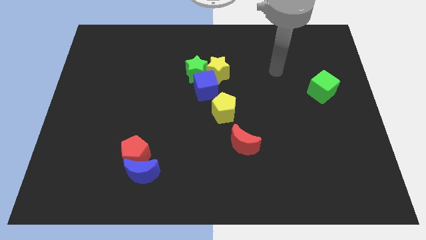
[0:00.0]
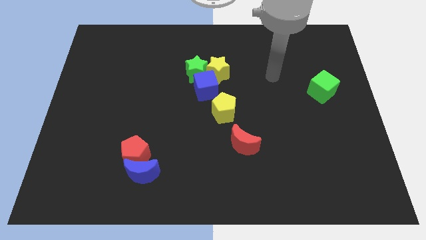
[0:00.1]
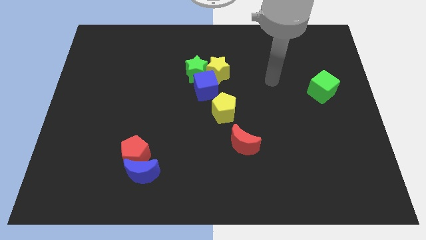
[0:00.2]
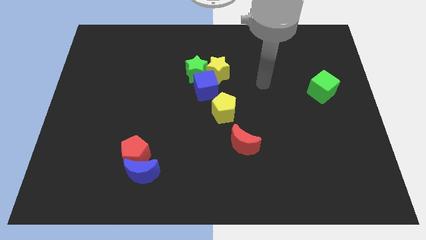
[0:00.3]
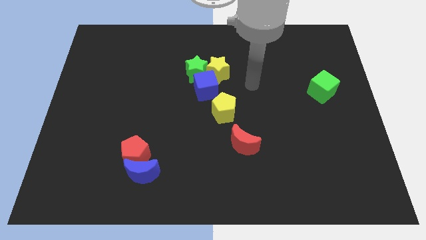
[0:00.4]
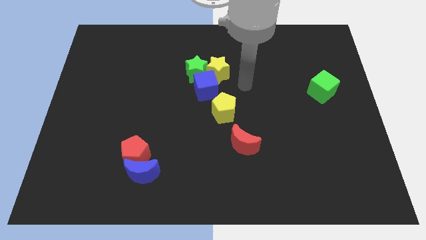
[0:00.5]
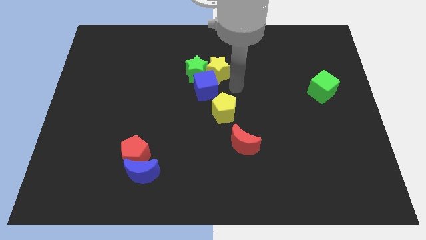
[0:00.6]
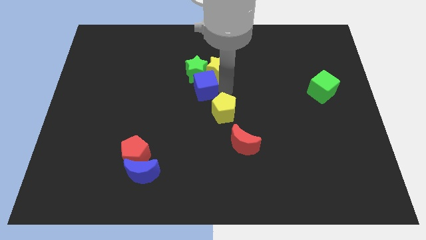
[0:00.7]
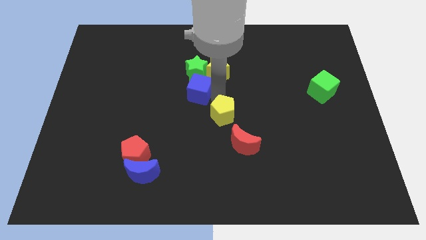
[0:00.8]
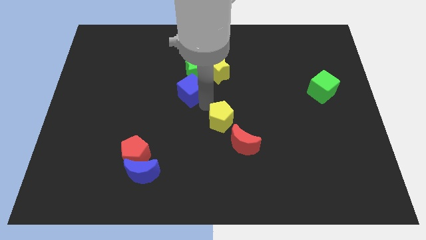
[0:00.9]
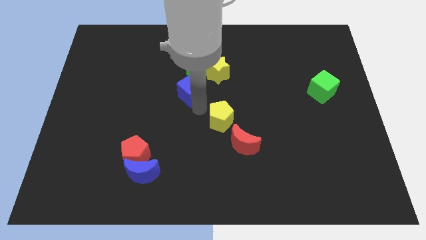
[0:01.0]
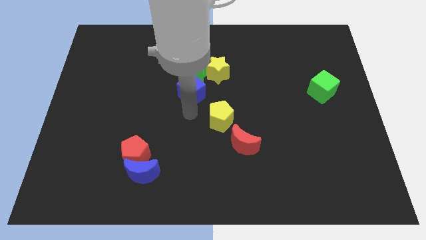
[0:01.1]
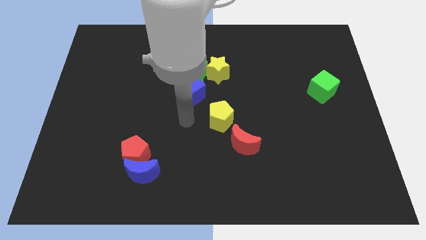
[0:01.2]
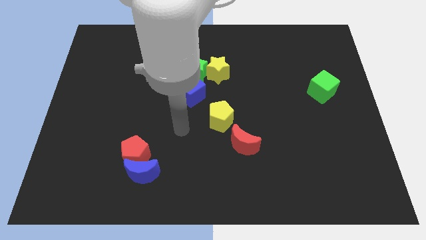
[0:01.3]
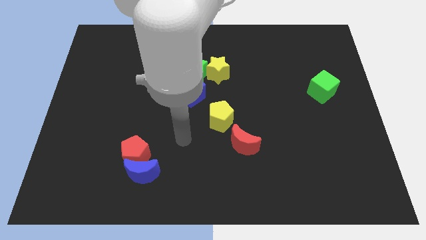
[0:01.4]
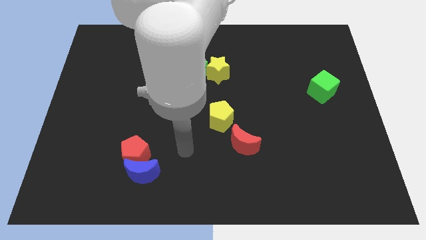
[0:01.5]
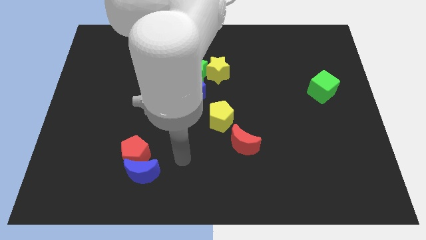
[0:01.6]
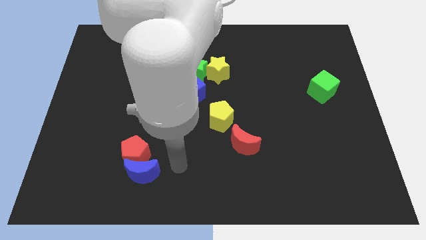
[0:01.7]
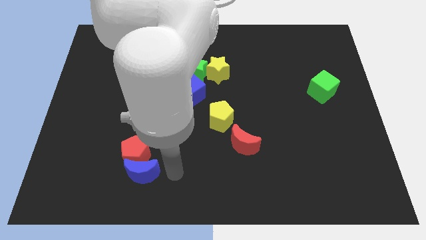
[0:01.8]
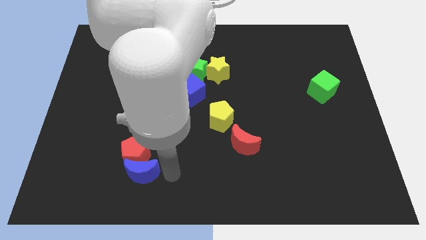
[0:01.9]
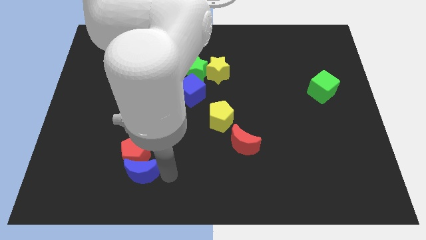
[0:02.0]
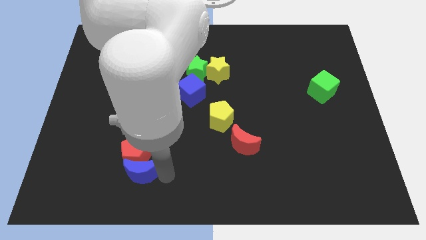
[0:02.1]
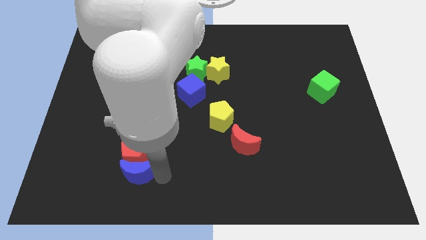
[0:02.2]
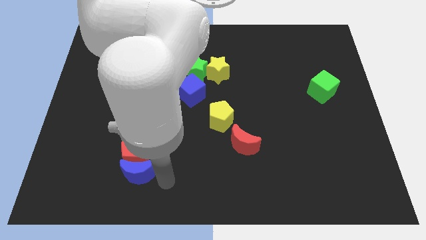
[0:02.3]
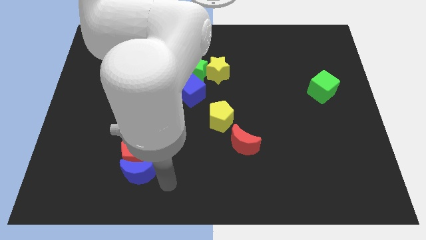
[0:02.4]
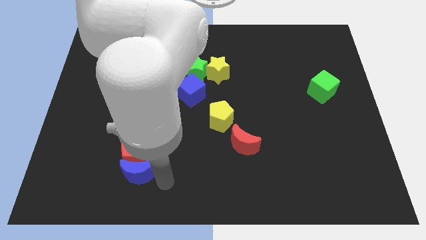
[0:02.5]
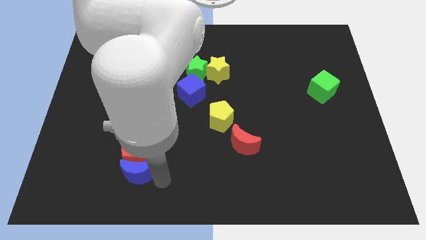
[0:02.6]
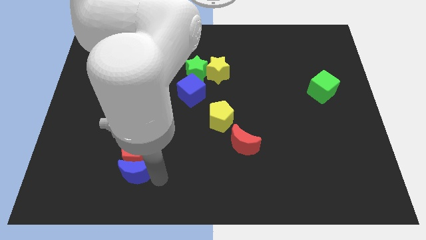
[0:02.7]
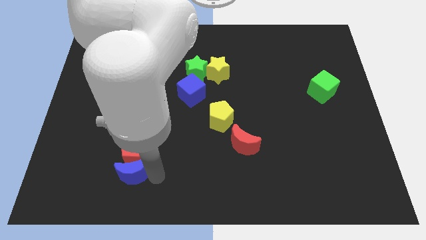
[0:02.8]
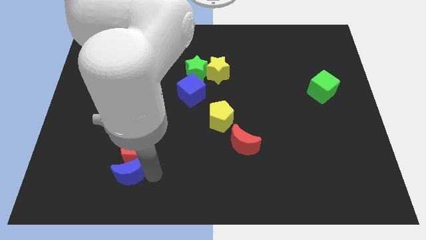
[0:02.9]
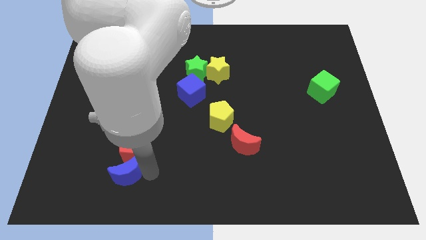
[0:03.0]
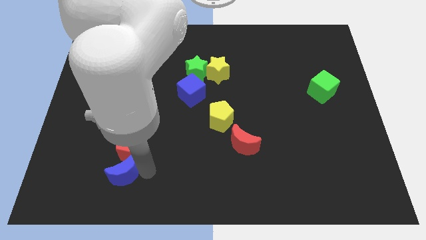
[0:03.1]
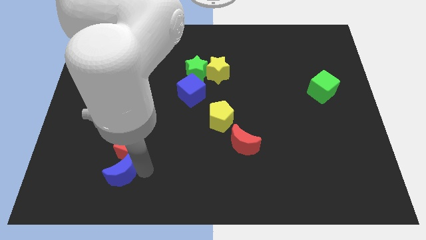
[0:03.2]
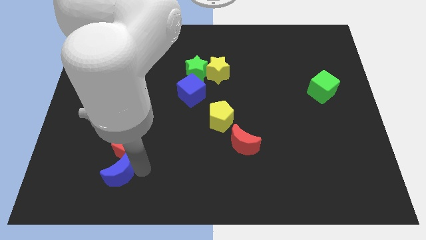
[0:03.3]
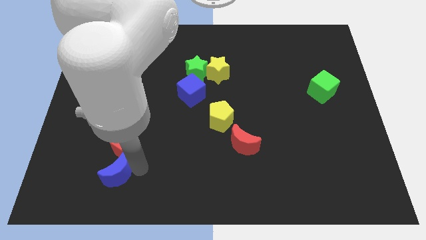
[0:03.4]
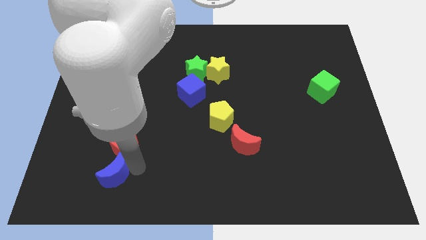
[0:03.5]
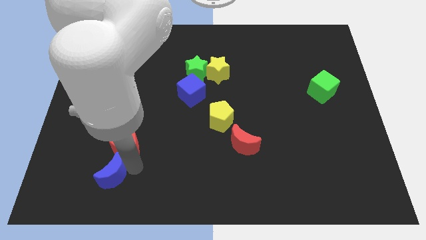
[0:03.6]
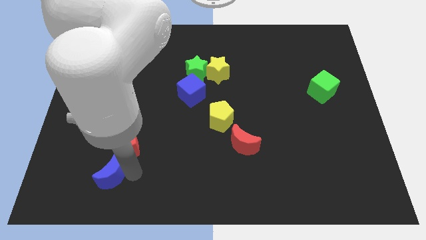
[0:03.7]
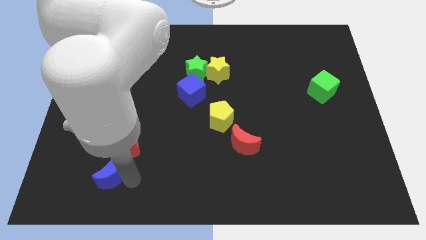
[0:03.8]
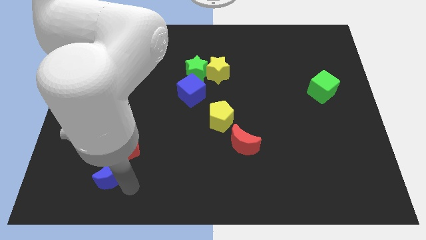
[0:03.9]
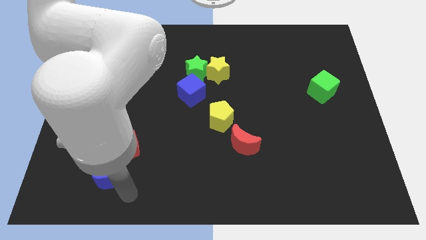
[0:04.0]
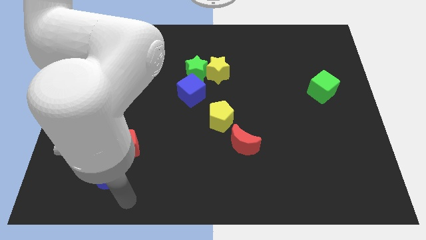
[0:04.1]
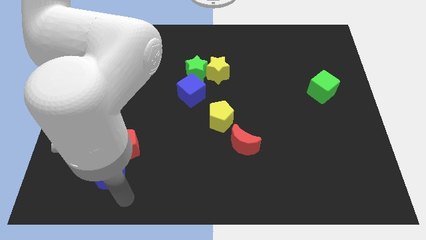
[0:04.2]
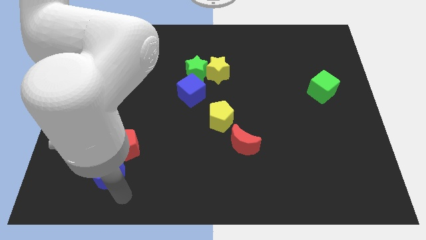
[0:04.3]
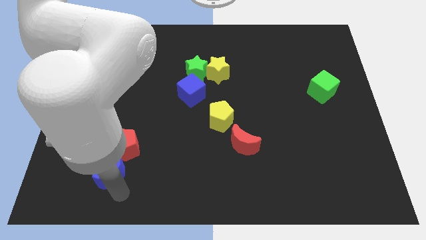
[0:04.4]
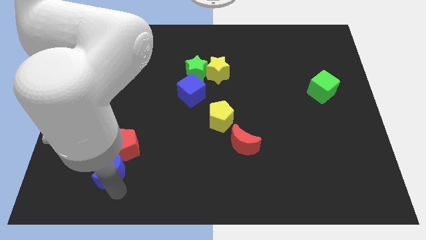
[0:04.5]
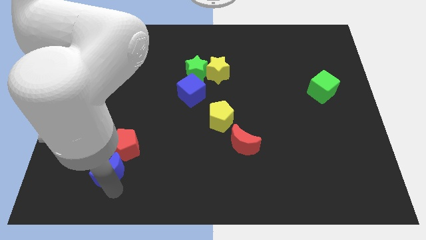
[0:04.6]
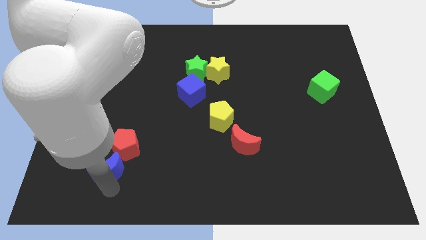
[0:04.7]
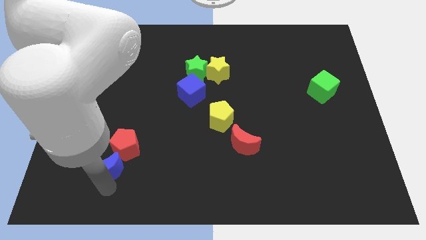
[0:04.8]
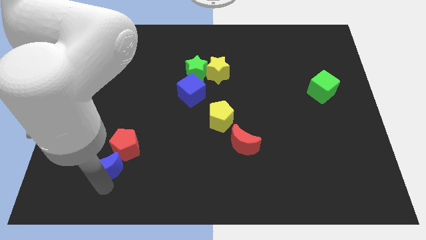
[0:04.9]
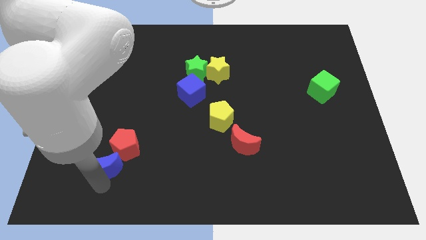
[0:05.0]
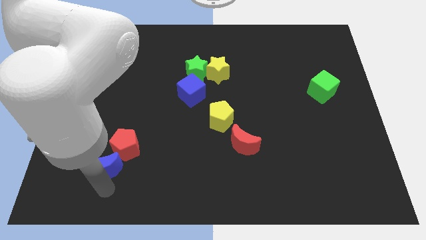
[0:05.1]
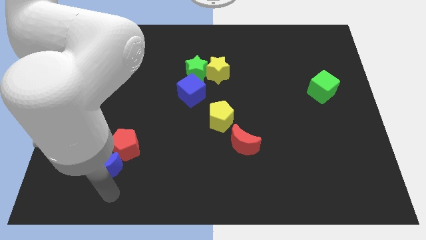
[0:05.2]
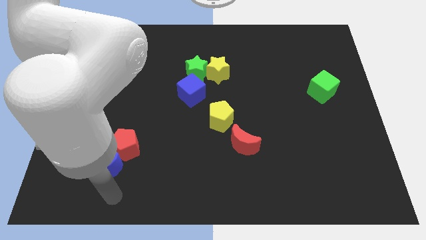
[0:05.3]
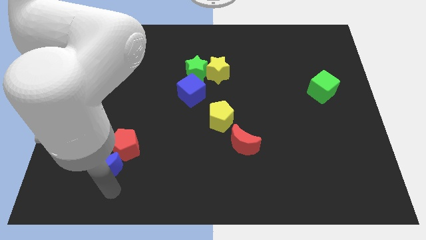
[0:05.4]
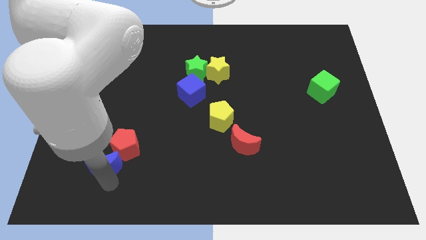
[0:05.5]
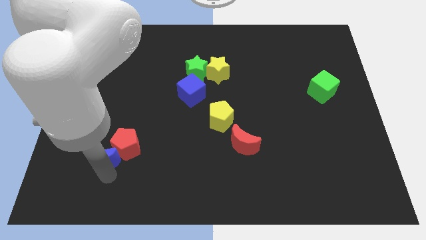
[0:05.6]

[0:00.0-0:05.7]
push the blue moon diagonally upwards and to the left slightly

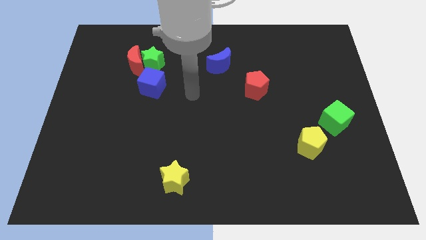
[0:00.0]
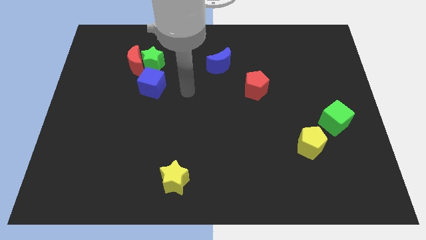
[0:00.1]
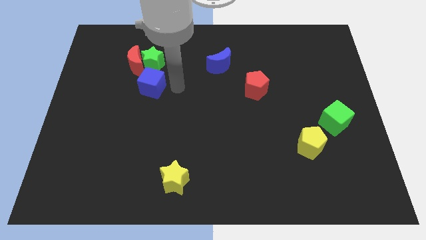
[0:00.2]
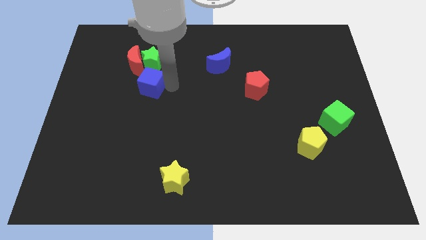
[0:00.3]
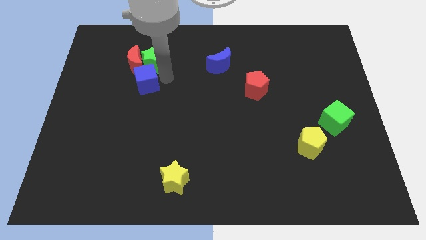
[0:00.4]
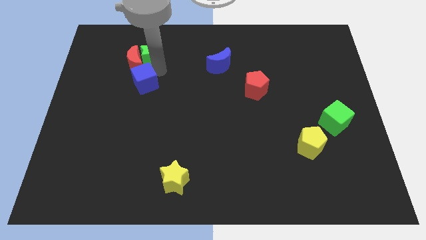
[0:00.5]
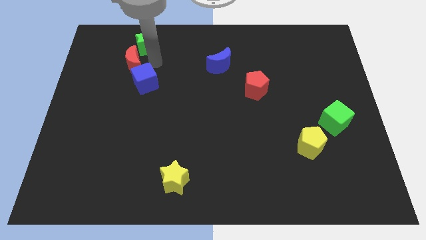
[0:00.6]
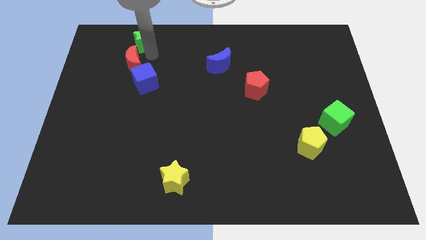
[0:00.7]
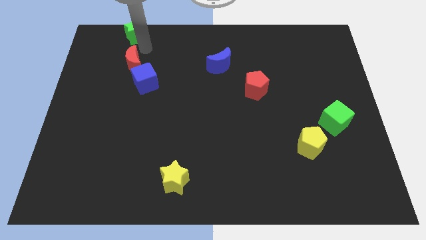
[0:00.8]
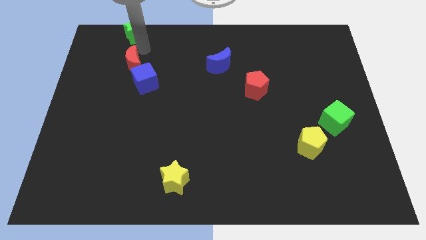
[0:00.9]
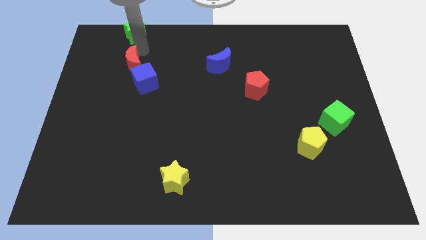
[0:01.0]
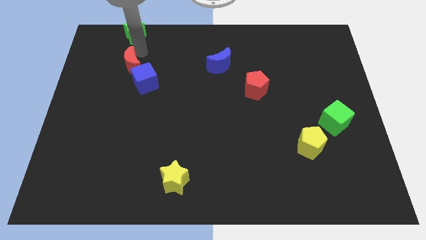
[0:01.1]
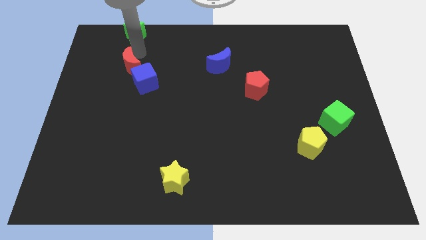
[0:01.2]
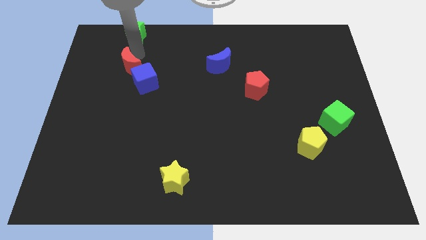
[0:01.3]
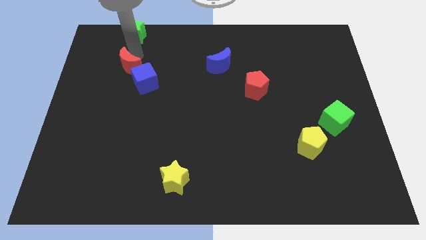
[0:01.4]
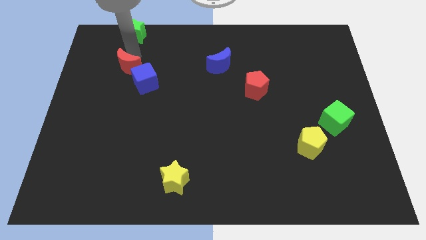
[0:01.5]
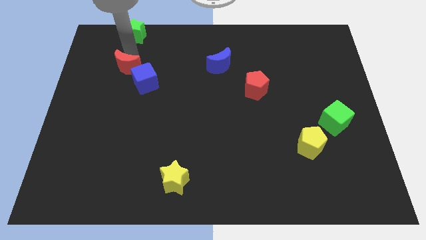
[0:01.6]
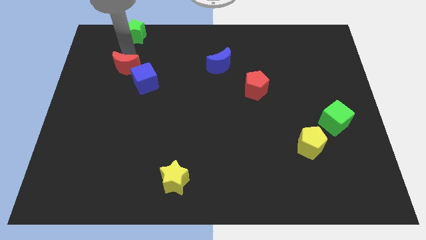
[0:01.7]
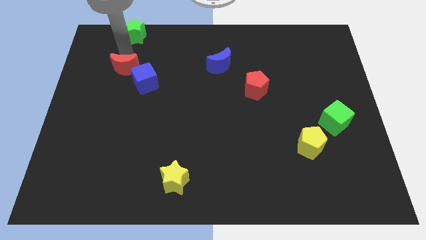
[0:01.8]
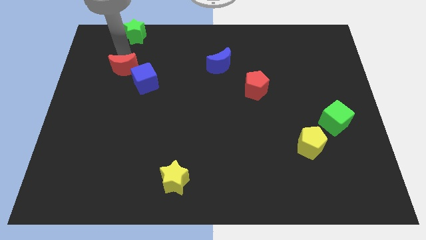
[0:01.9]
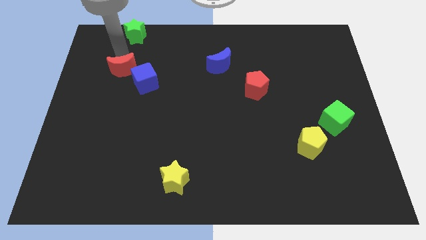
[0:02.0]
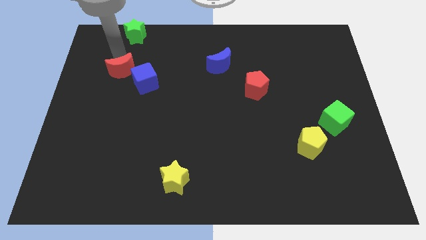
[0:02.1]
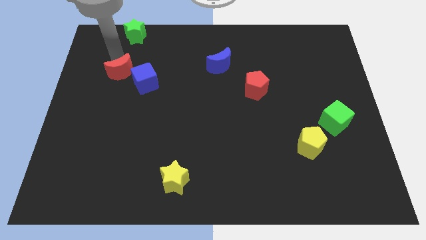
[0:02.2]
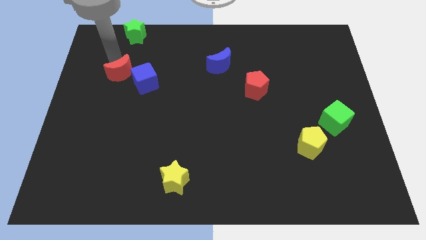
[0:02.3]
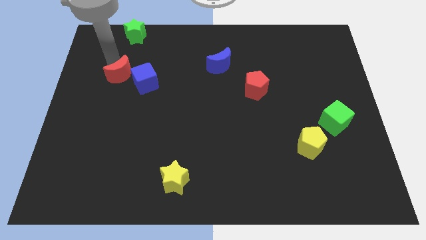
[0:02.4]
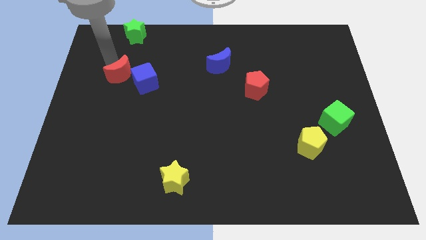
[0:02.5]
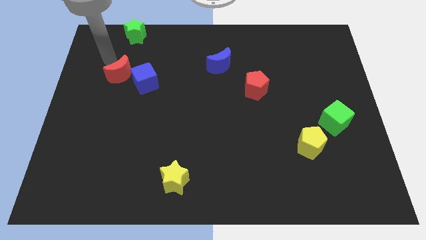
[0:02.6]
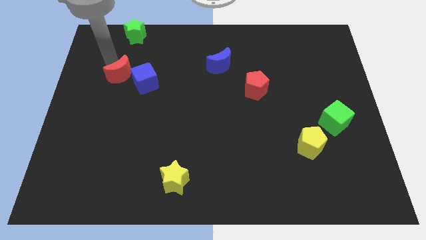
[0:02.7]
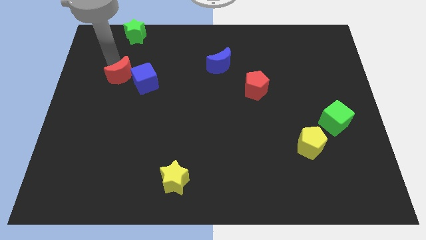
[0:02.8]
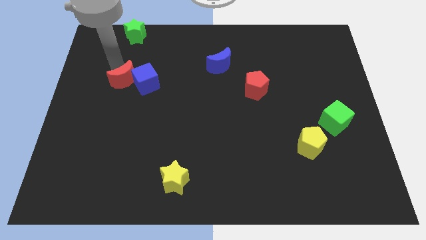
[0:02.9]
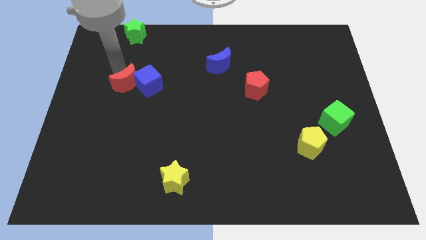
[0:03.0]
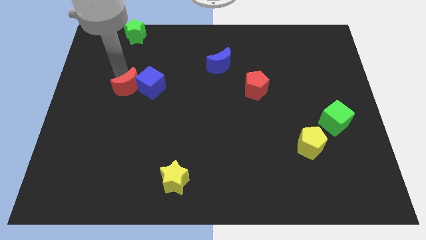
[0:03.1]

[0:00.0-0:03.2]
slide the red moon a little down
